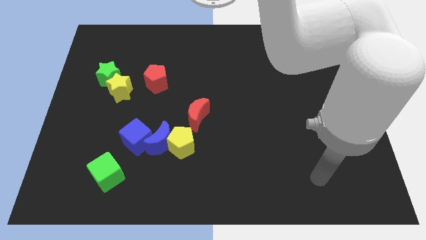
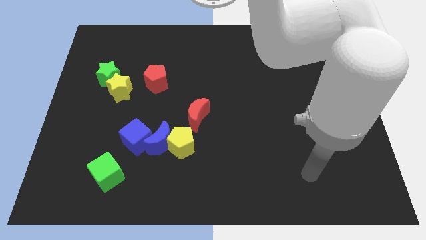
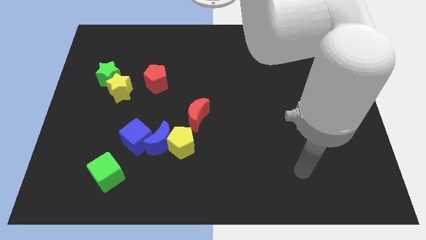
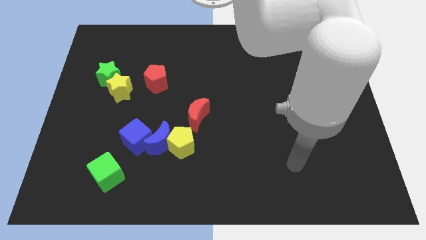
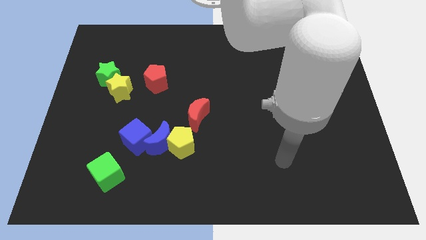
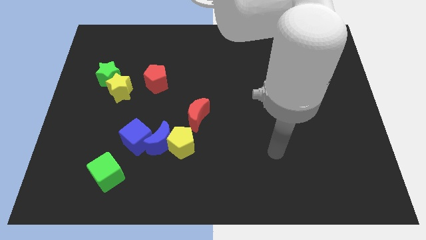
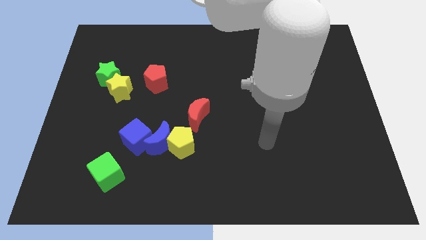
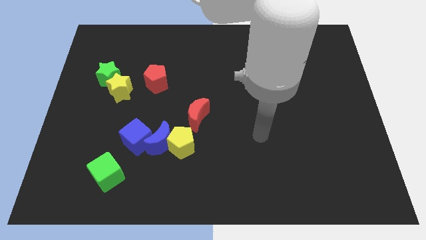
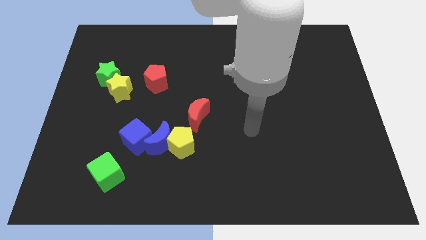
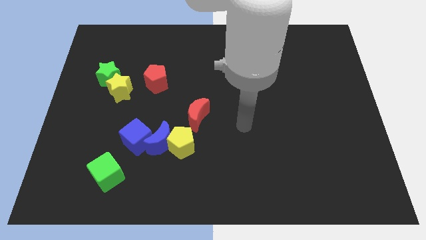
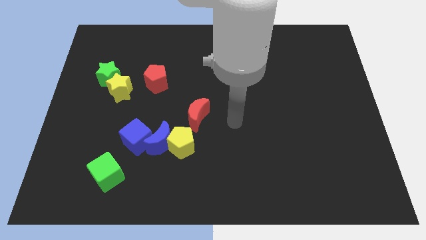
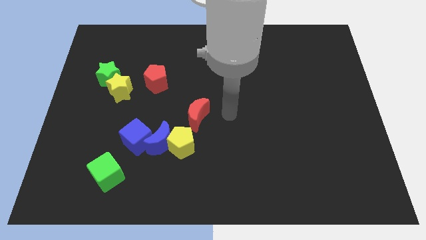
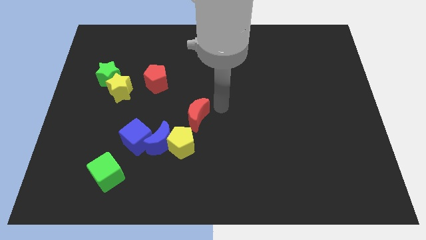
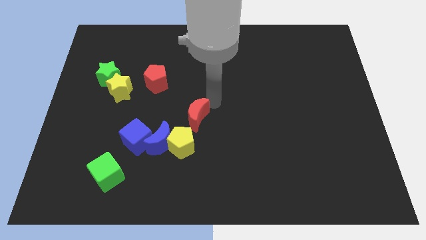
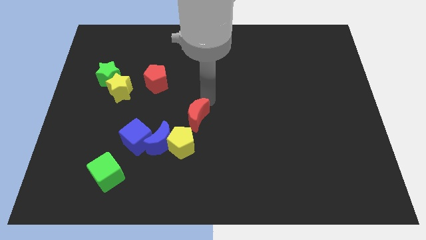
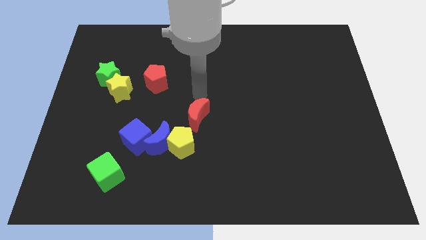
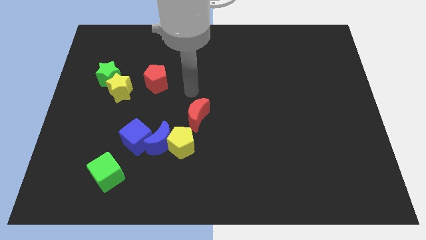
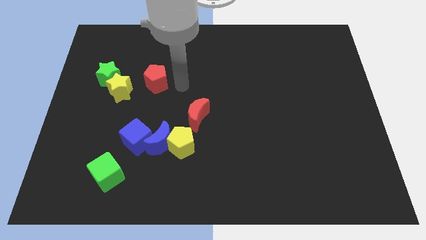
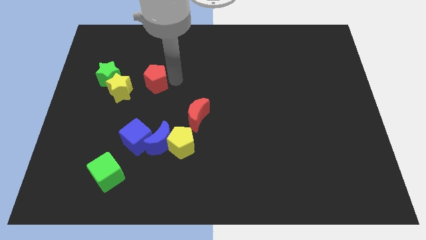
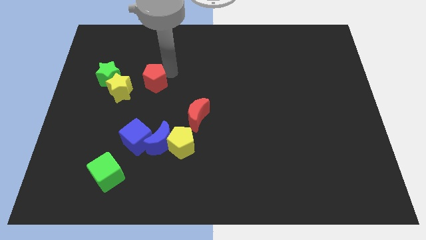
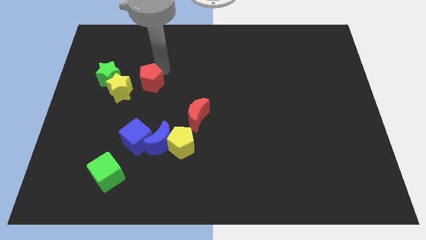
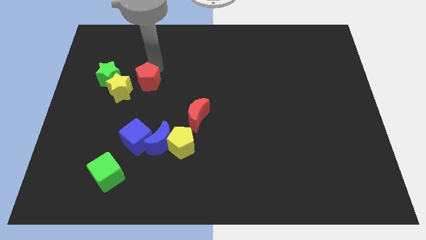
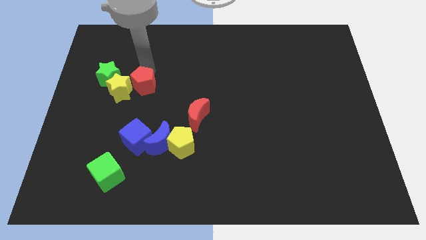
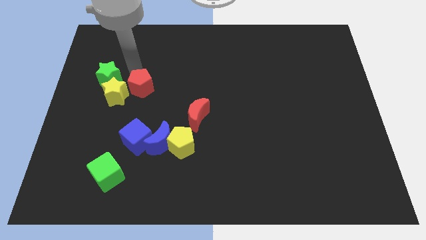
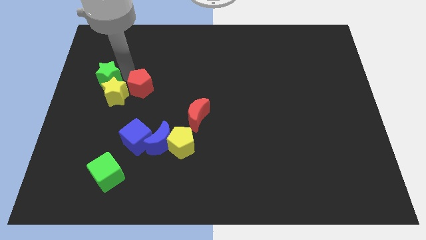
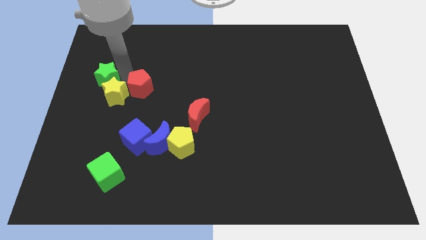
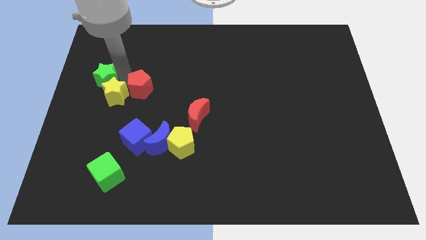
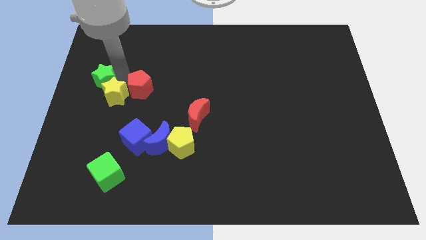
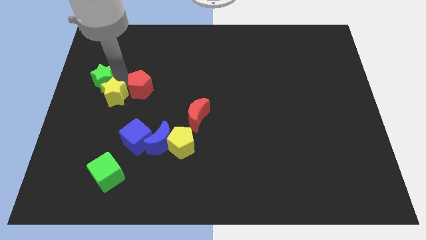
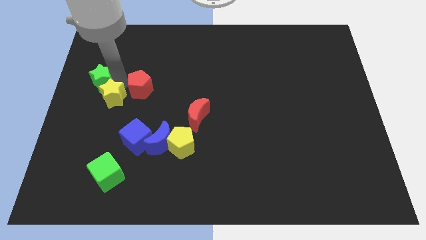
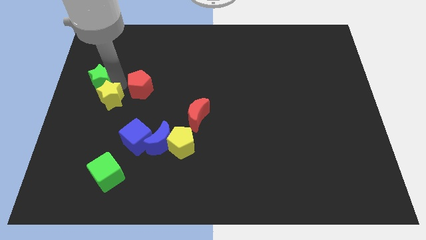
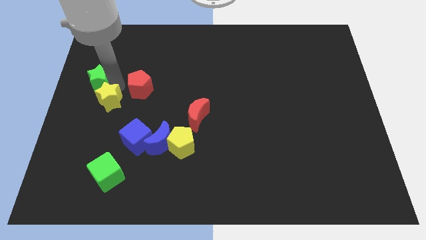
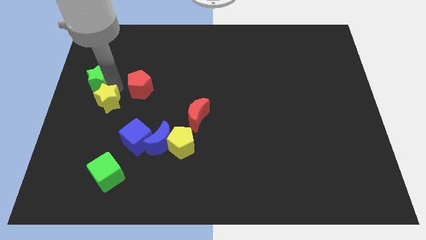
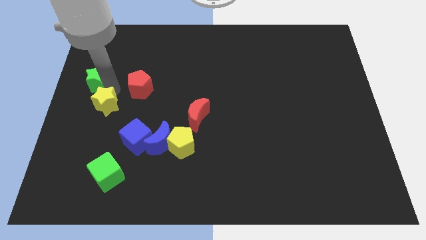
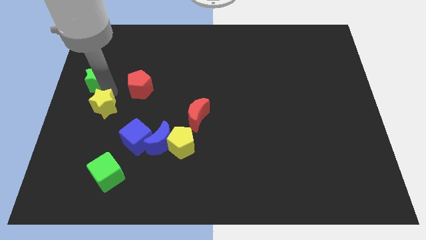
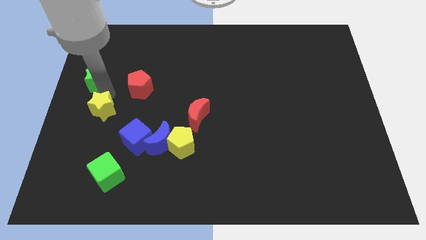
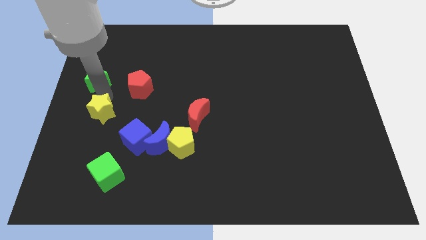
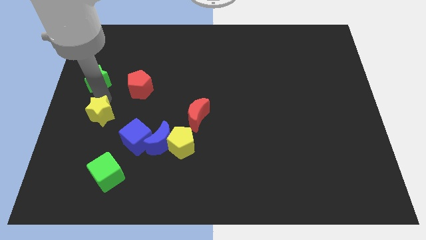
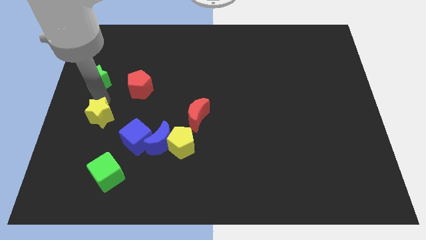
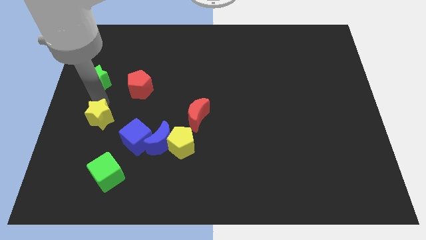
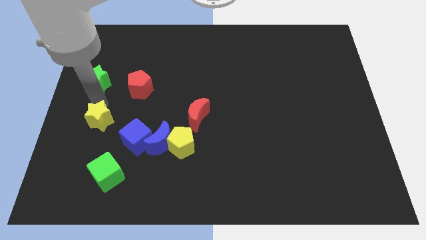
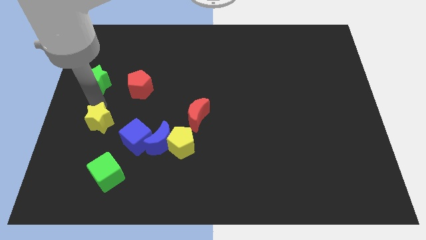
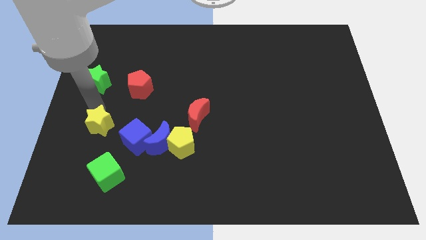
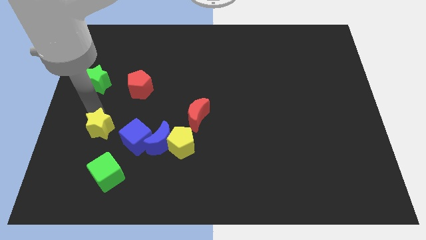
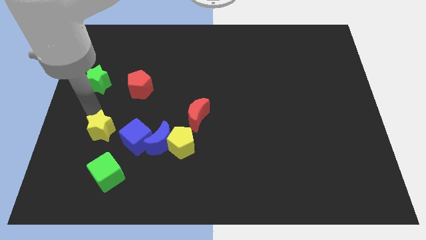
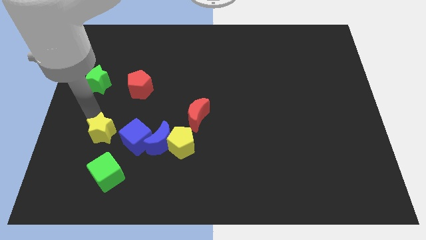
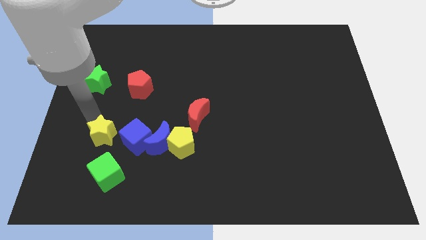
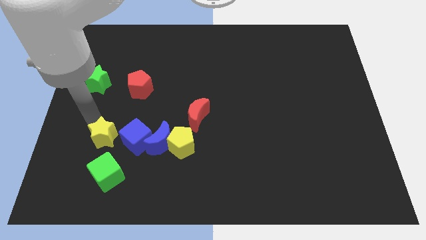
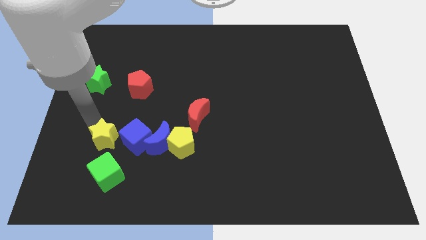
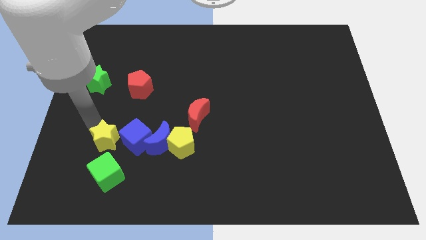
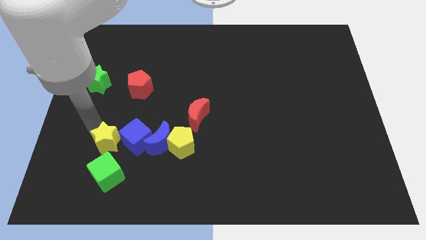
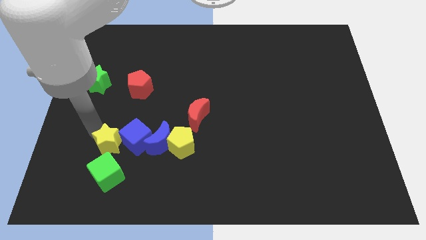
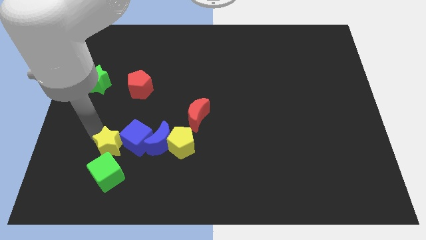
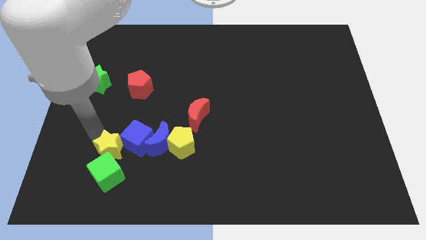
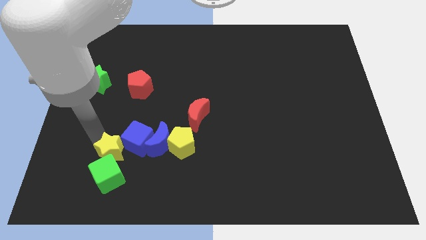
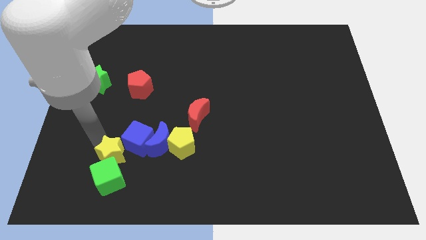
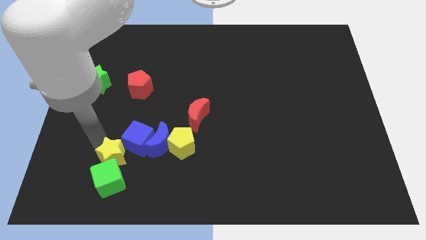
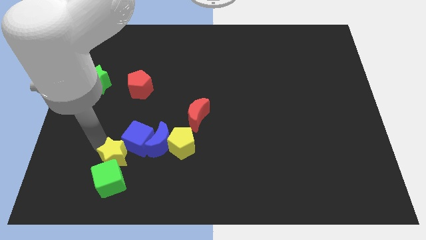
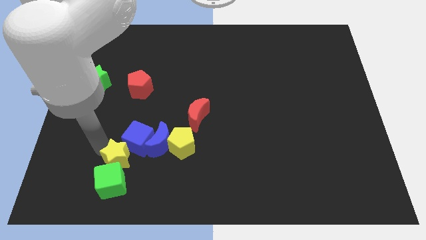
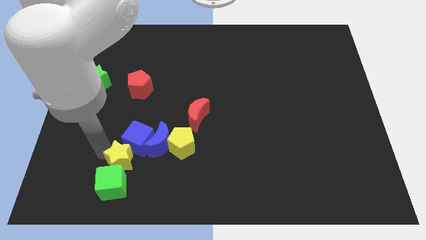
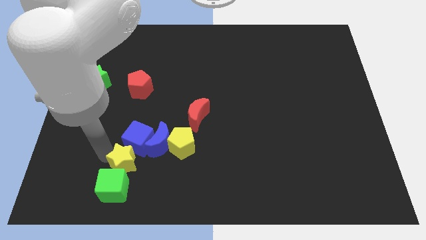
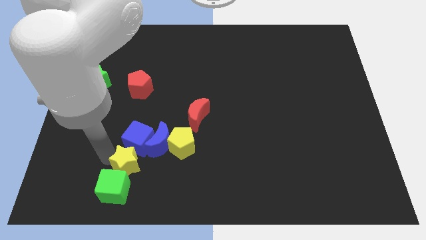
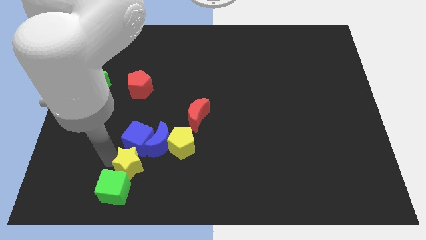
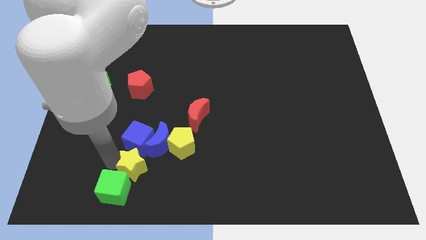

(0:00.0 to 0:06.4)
put the yellow star to the bottom left side of the yellow pentagon

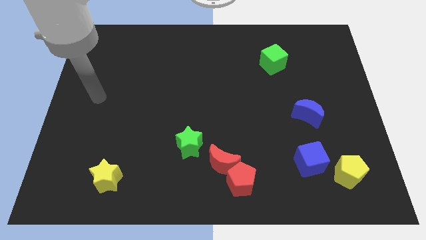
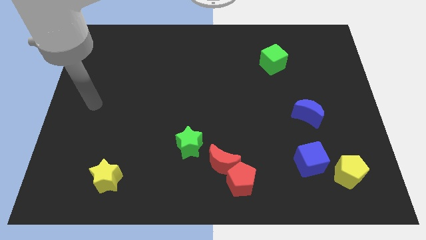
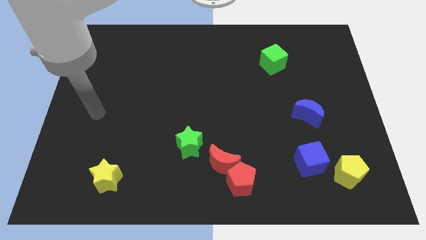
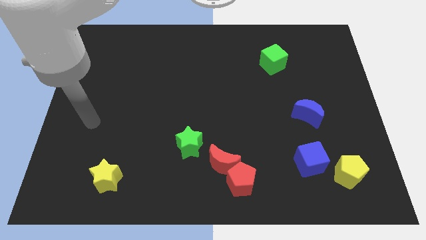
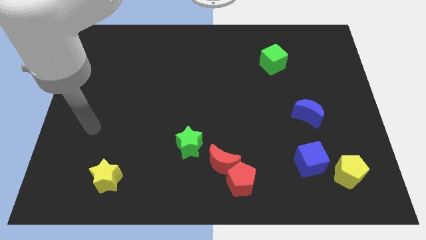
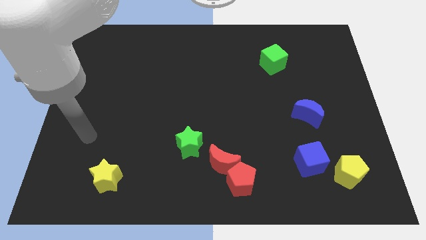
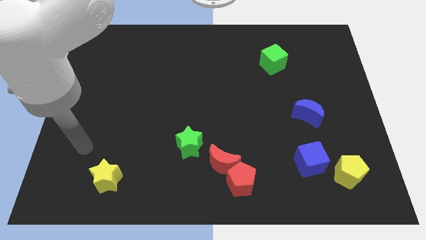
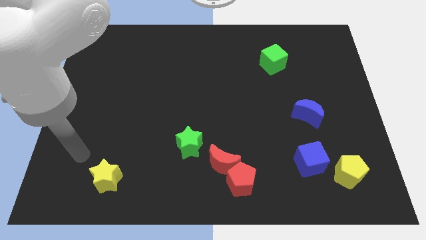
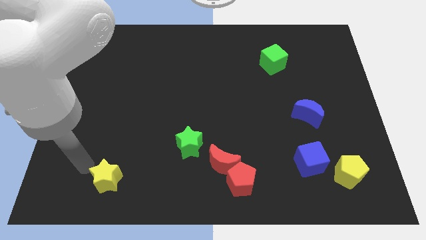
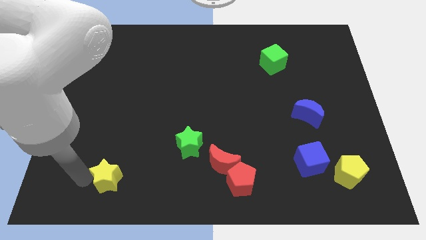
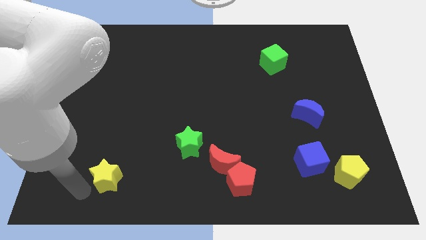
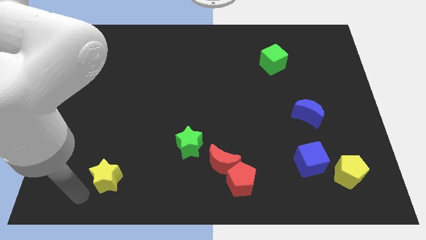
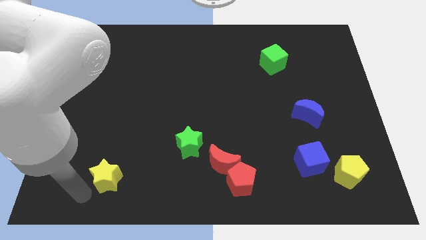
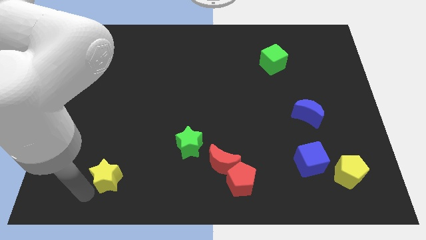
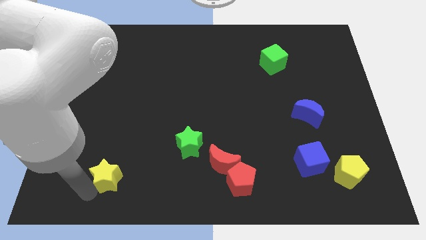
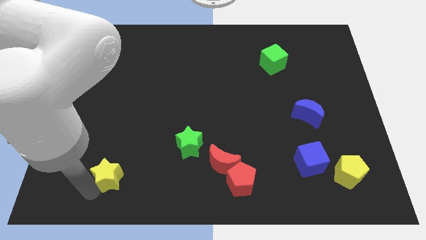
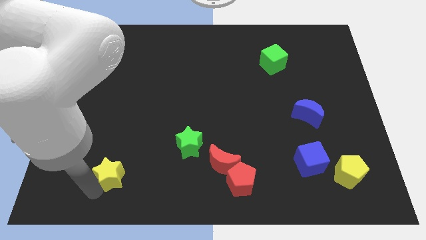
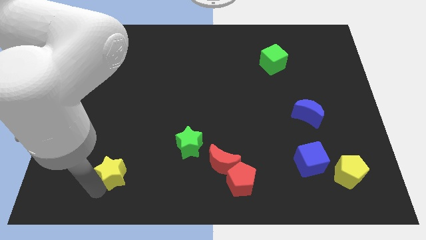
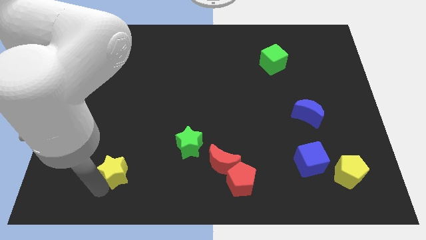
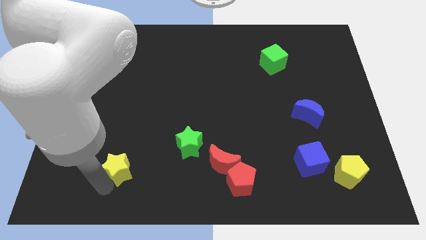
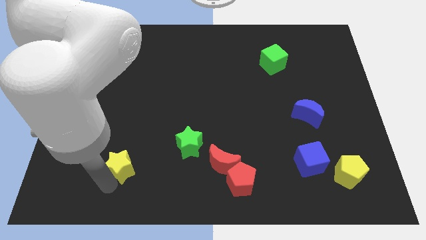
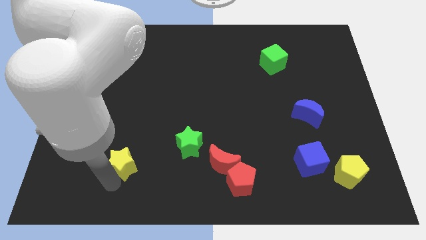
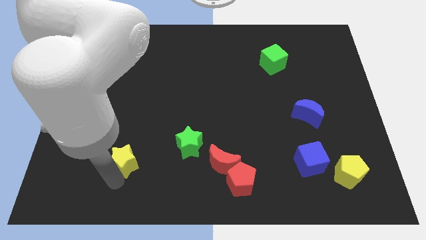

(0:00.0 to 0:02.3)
slide the yellow star left of the green star

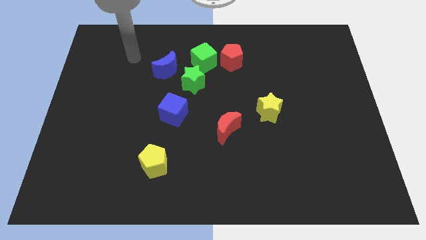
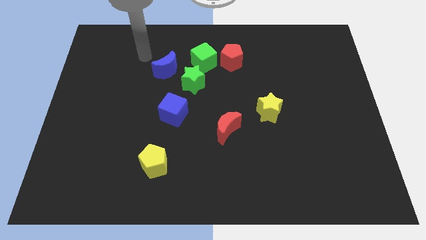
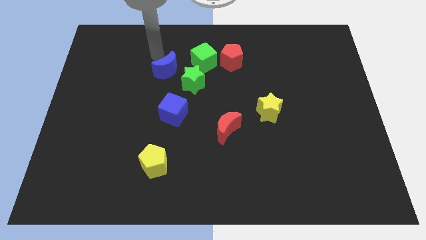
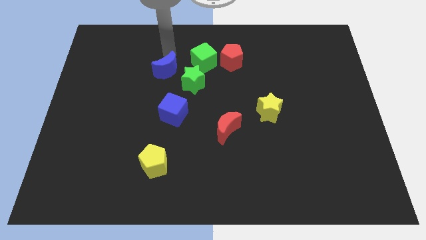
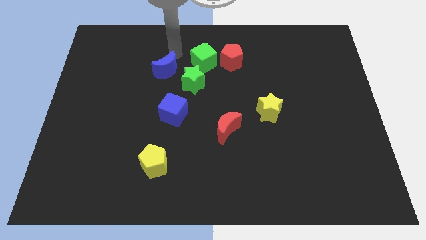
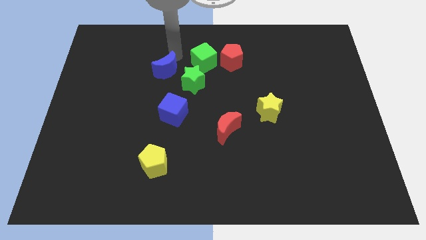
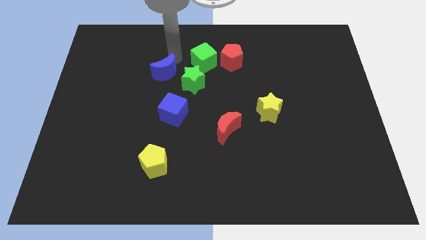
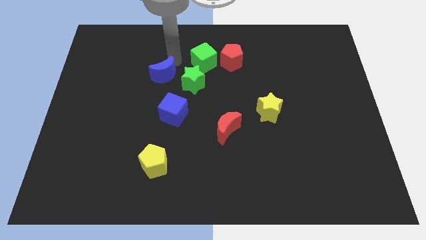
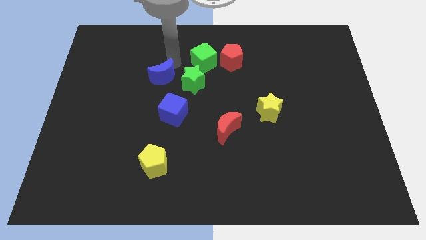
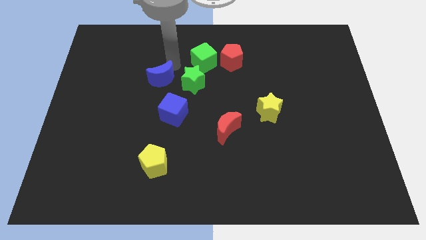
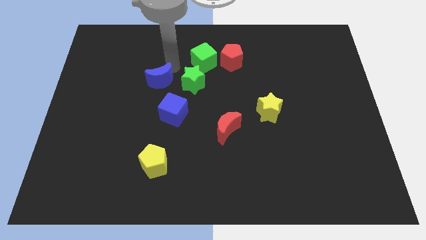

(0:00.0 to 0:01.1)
slide the blue moon diagonally up and to the left of the blue cube
